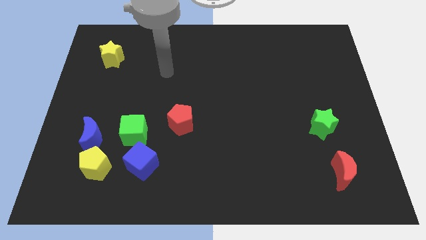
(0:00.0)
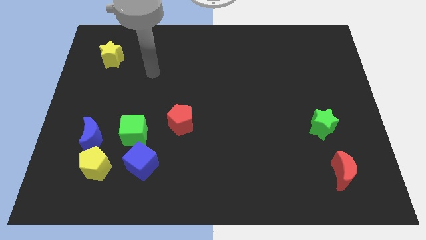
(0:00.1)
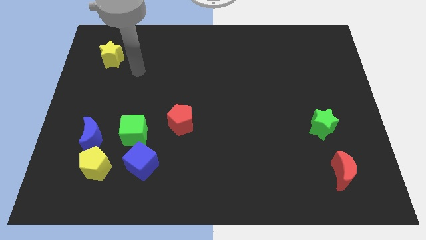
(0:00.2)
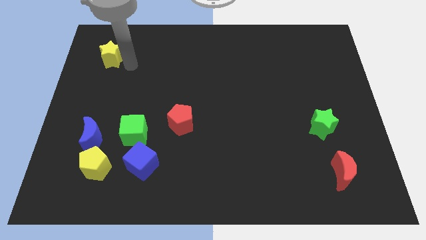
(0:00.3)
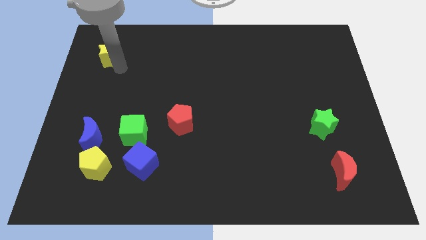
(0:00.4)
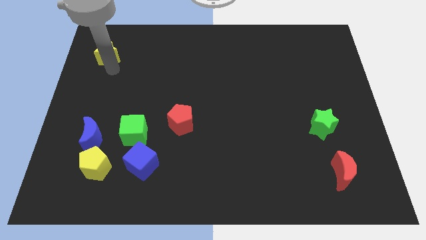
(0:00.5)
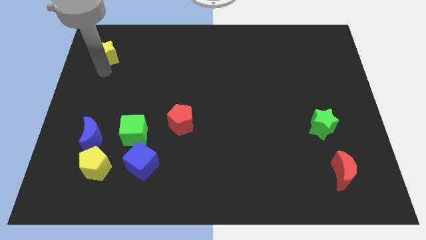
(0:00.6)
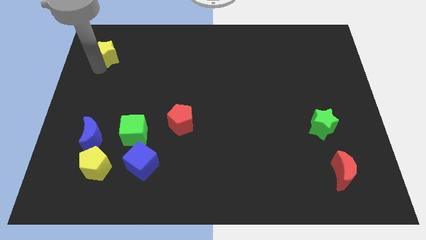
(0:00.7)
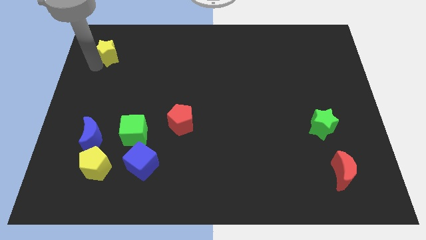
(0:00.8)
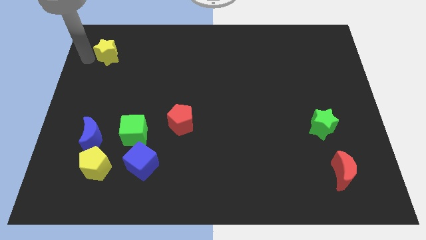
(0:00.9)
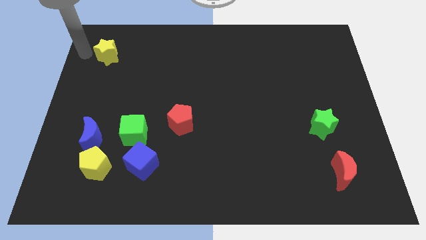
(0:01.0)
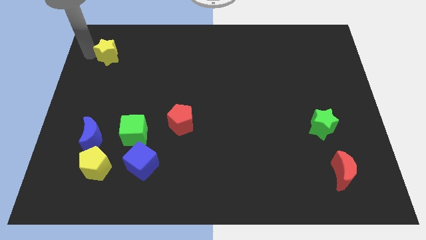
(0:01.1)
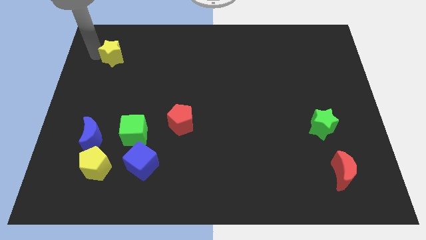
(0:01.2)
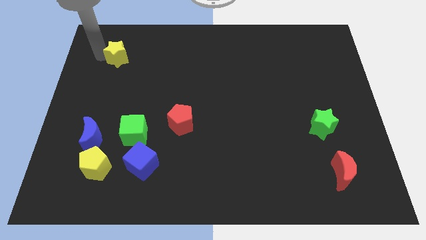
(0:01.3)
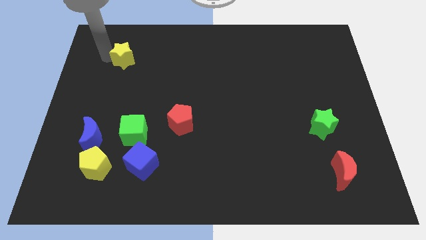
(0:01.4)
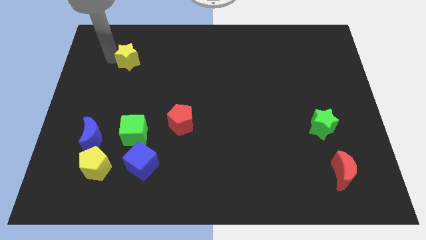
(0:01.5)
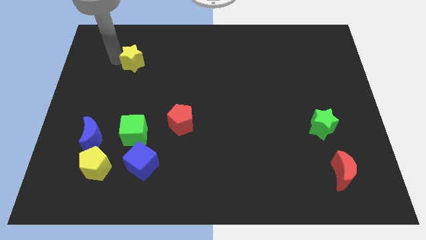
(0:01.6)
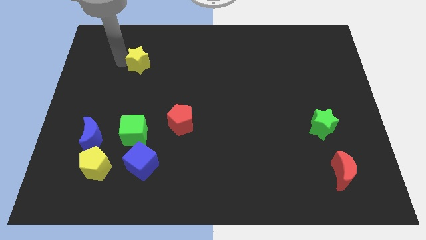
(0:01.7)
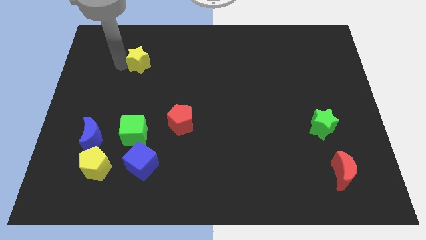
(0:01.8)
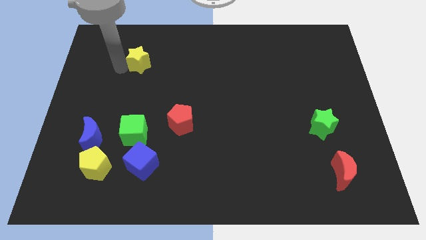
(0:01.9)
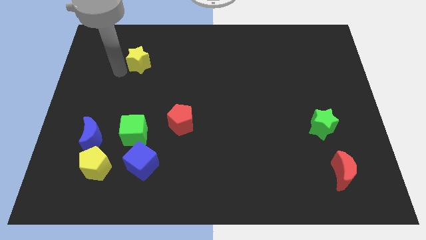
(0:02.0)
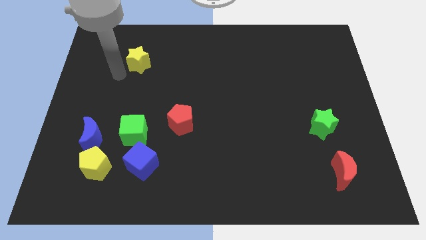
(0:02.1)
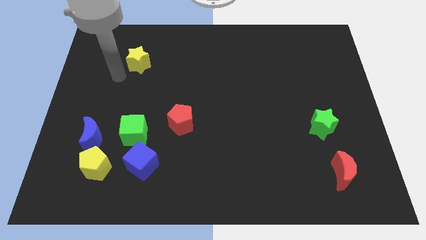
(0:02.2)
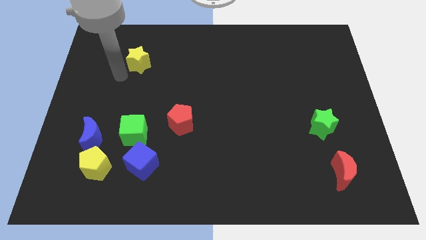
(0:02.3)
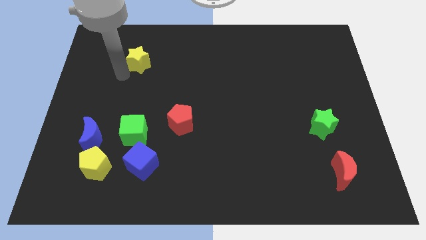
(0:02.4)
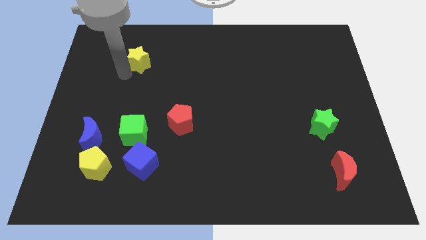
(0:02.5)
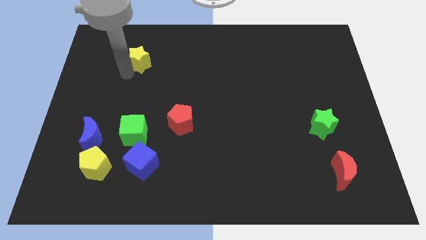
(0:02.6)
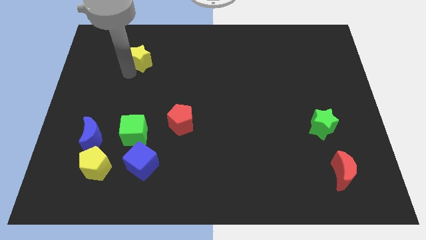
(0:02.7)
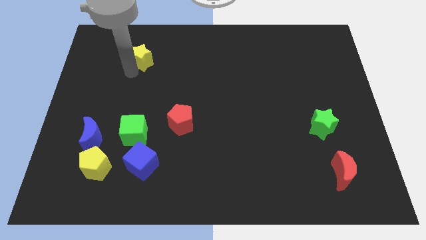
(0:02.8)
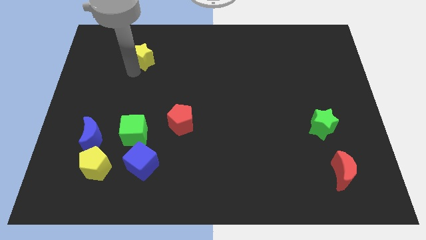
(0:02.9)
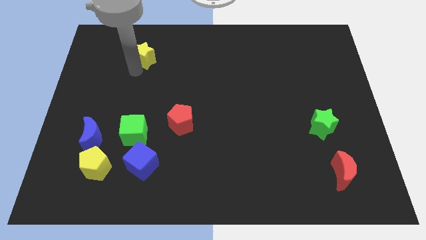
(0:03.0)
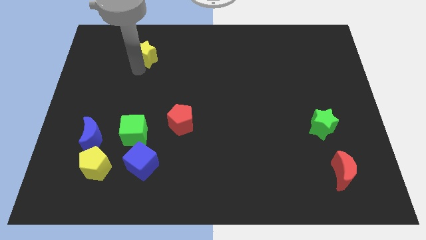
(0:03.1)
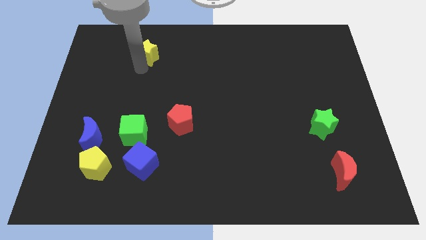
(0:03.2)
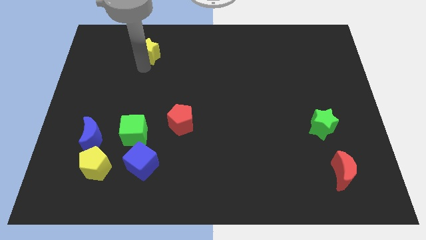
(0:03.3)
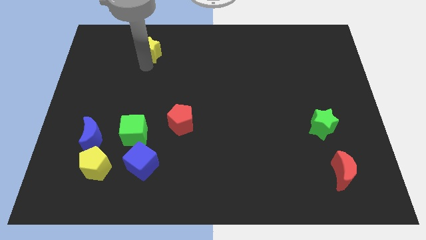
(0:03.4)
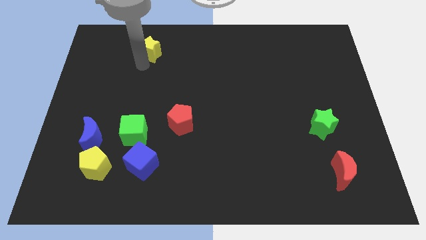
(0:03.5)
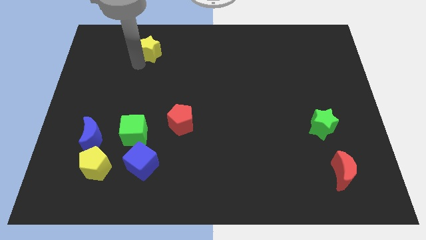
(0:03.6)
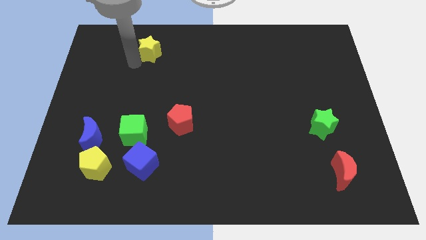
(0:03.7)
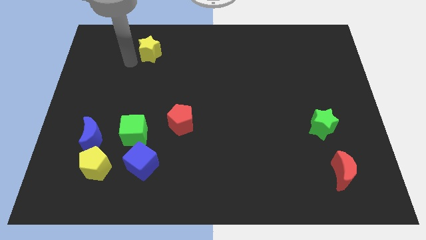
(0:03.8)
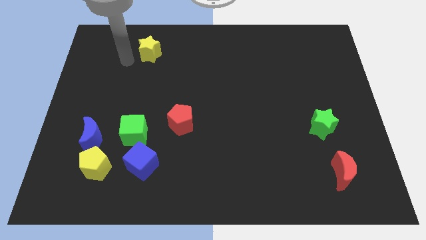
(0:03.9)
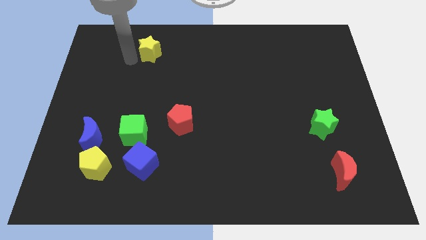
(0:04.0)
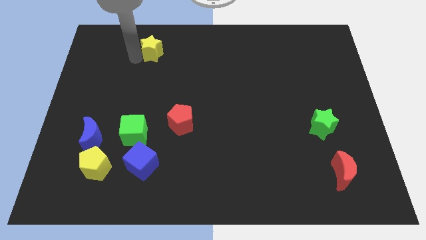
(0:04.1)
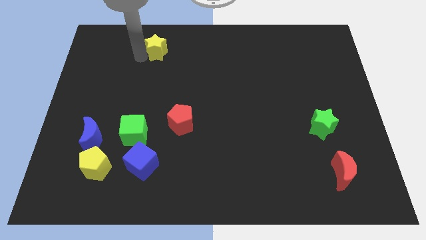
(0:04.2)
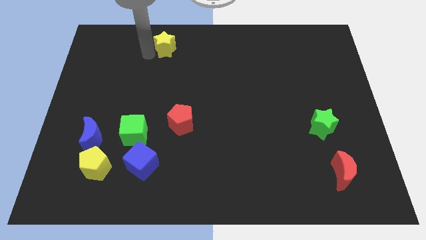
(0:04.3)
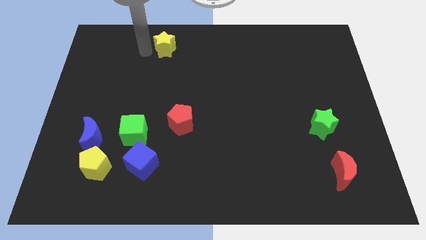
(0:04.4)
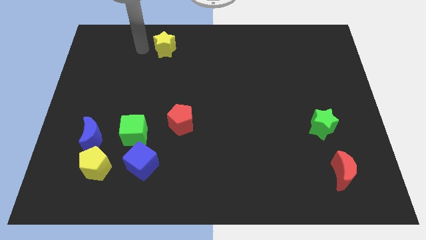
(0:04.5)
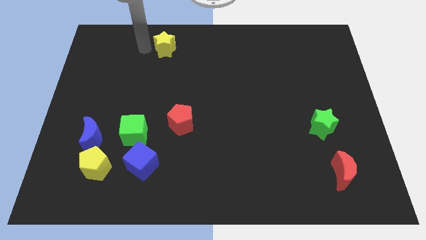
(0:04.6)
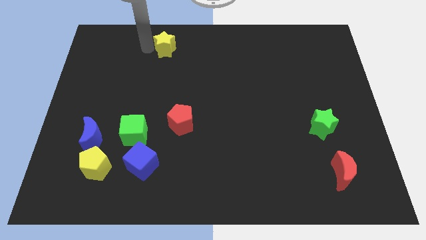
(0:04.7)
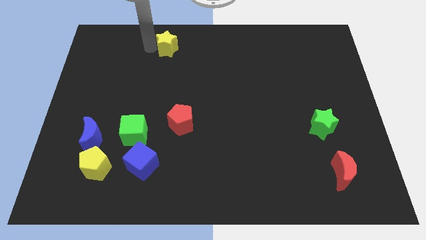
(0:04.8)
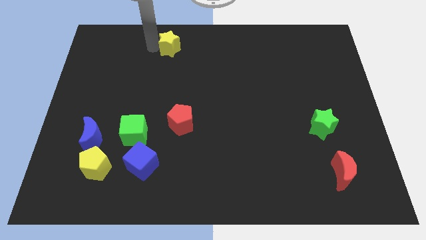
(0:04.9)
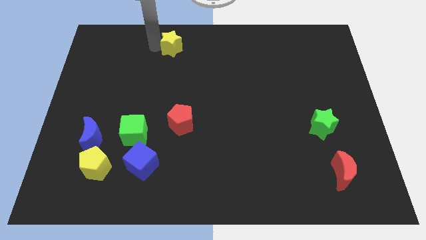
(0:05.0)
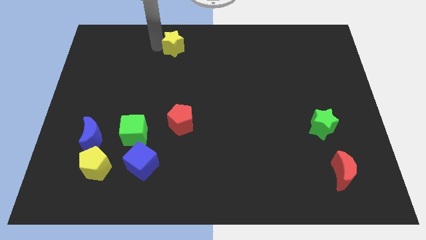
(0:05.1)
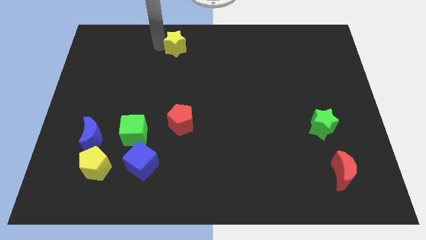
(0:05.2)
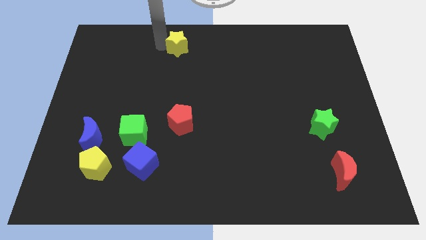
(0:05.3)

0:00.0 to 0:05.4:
put the yellow star to the top

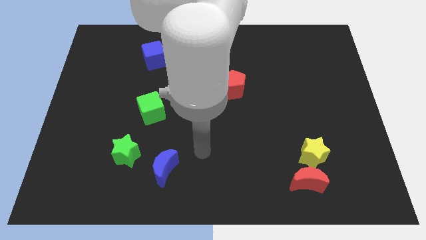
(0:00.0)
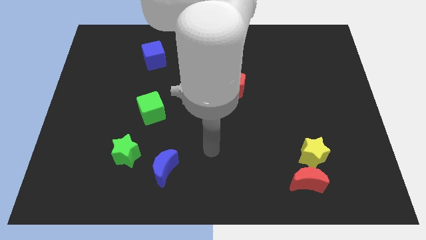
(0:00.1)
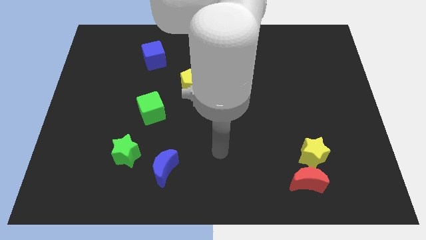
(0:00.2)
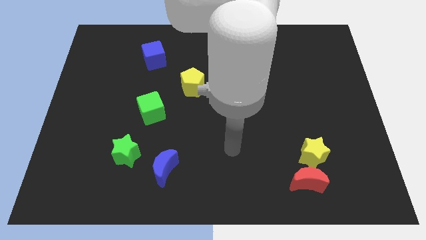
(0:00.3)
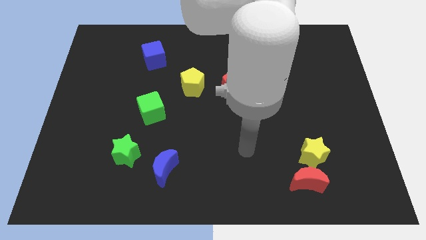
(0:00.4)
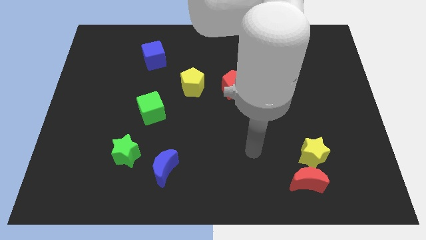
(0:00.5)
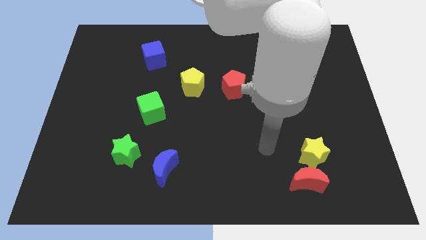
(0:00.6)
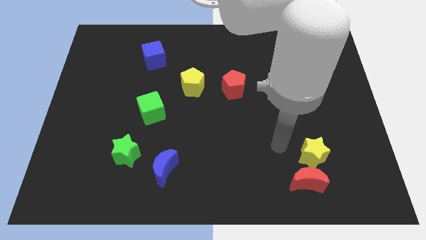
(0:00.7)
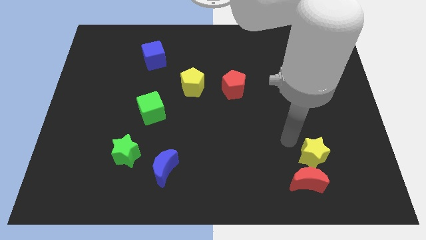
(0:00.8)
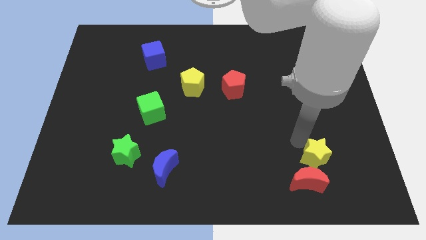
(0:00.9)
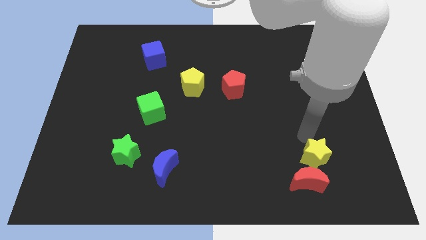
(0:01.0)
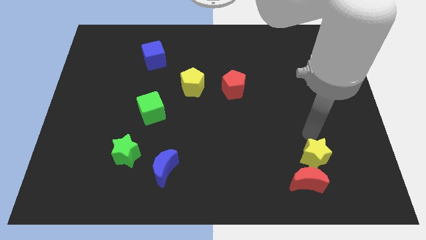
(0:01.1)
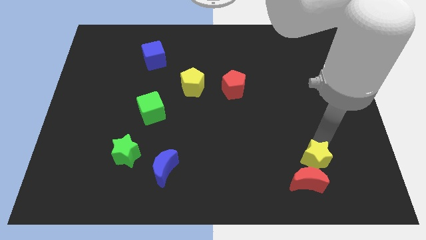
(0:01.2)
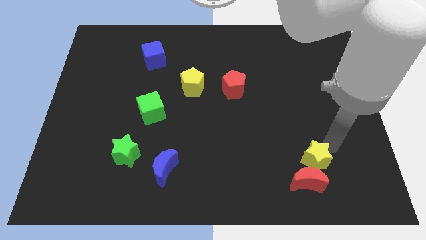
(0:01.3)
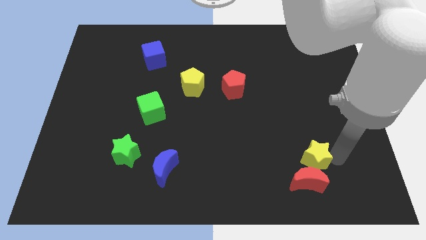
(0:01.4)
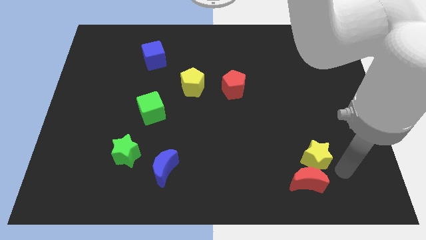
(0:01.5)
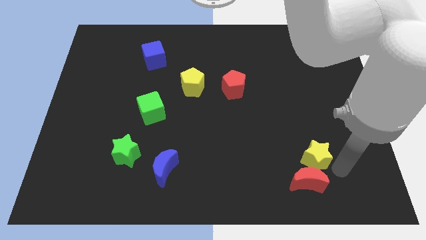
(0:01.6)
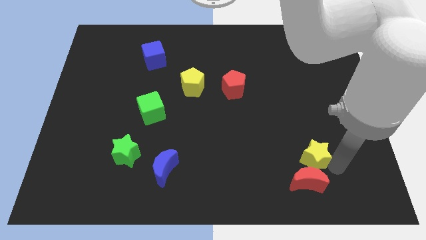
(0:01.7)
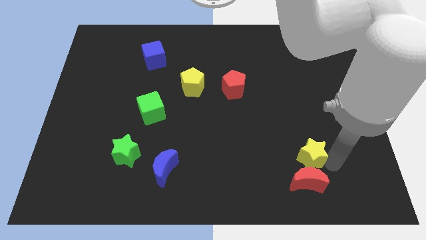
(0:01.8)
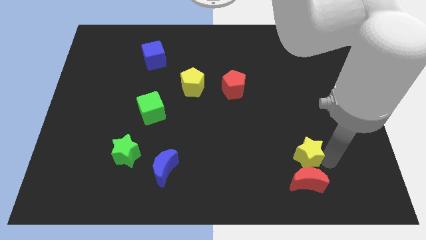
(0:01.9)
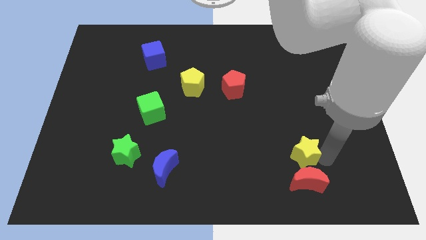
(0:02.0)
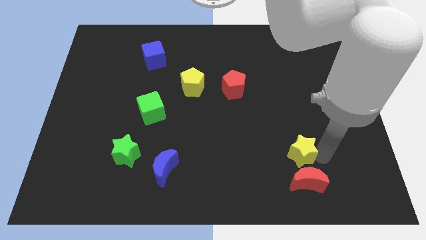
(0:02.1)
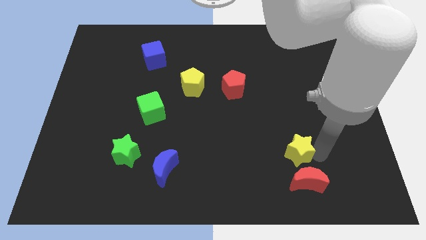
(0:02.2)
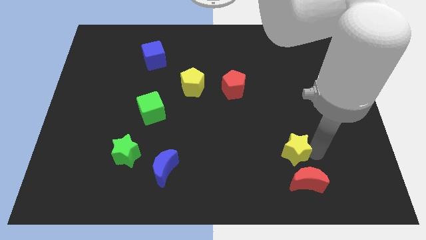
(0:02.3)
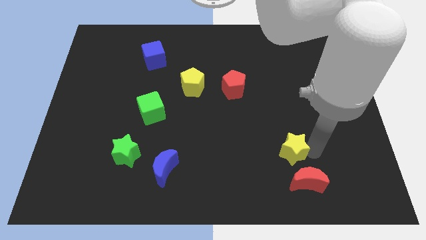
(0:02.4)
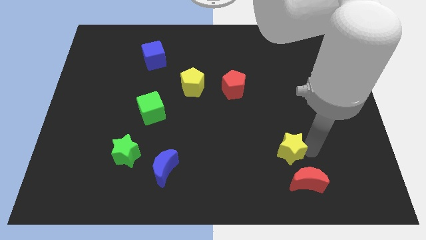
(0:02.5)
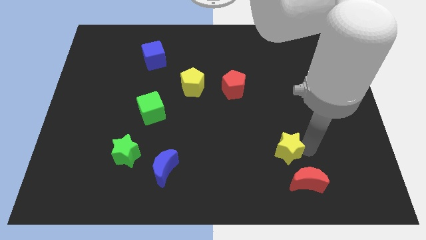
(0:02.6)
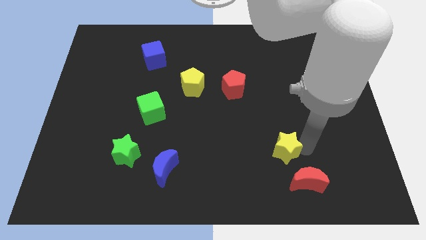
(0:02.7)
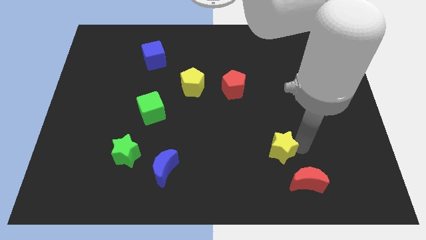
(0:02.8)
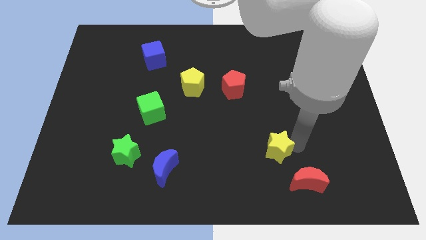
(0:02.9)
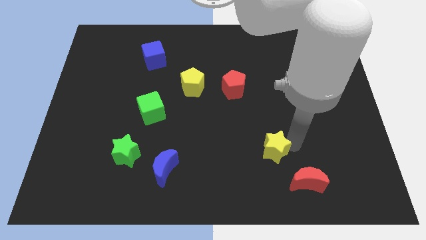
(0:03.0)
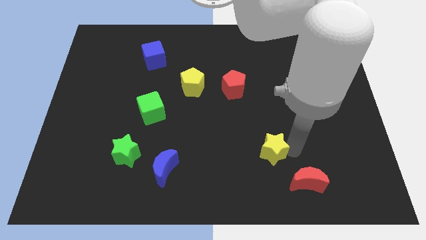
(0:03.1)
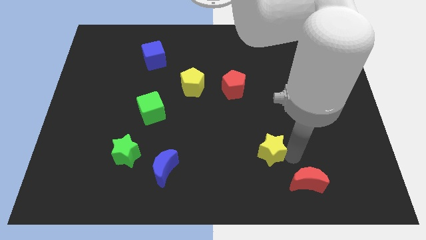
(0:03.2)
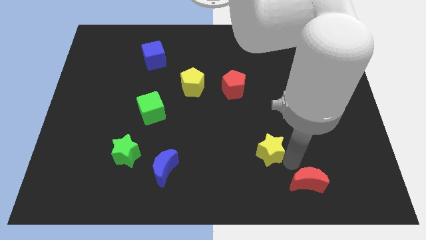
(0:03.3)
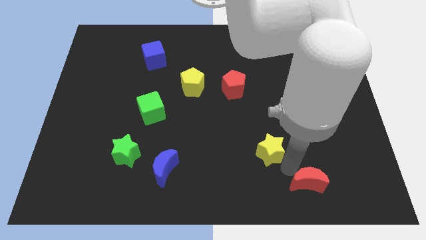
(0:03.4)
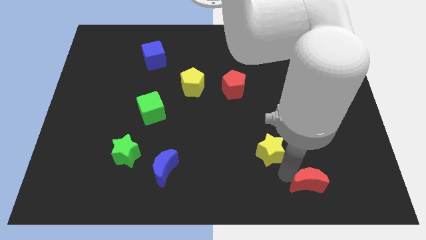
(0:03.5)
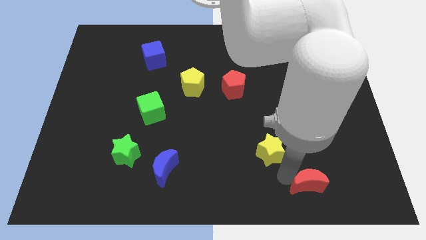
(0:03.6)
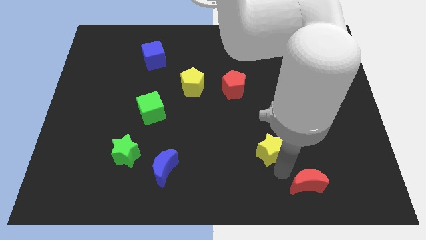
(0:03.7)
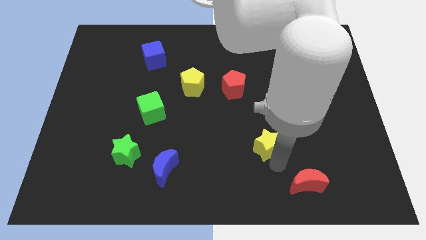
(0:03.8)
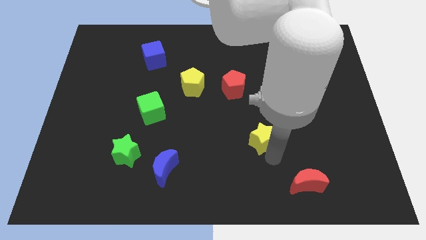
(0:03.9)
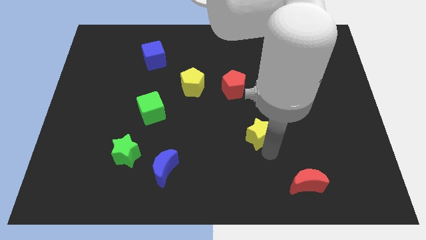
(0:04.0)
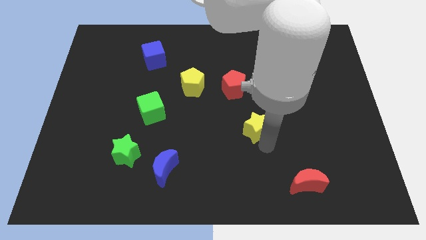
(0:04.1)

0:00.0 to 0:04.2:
slide the yellow star to the middle
